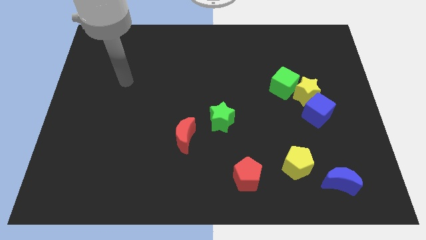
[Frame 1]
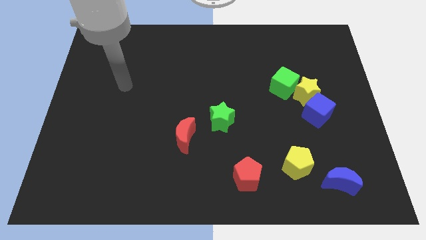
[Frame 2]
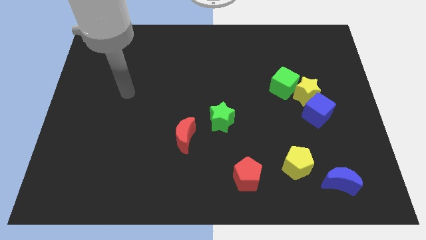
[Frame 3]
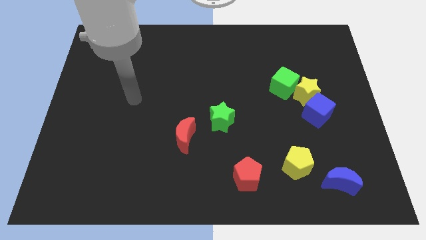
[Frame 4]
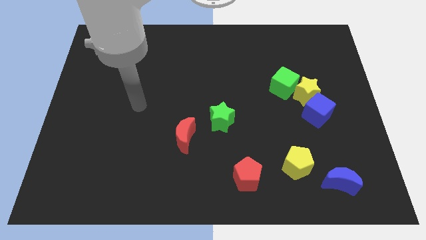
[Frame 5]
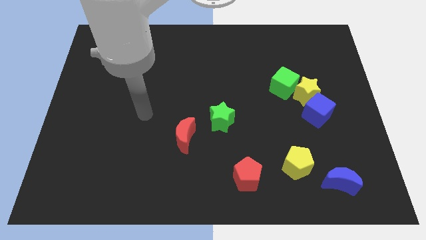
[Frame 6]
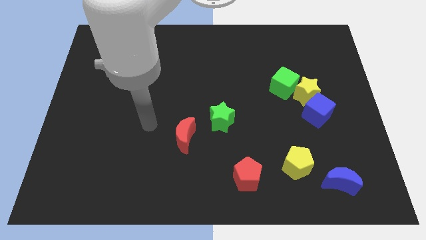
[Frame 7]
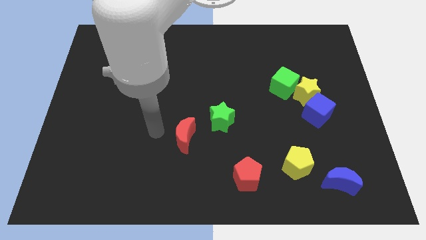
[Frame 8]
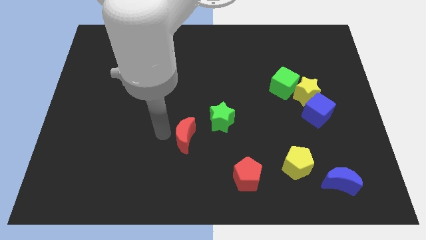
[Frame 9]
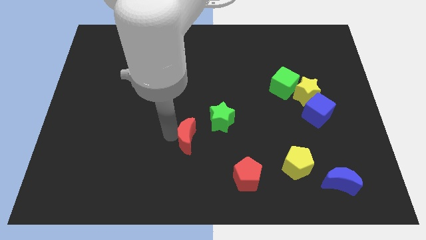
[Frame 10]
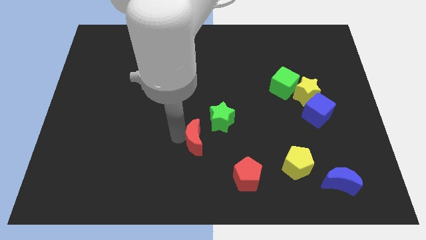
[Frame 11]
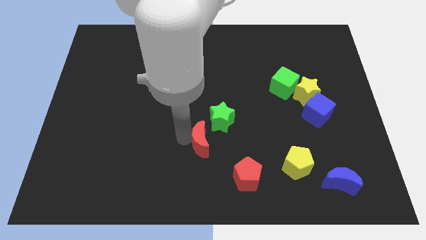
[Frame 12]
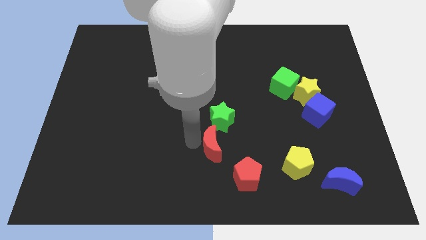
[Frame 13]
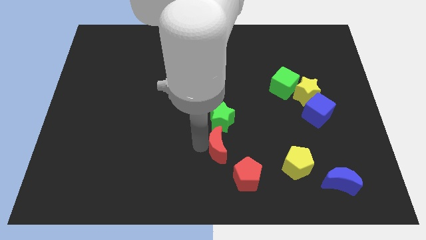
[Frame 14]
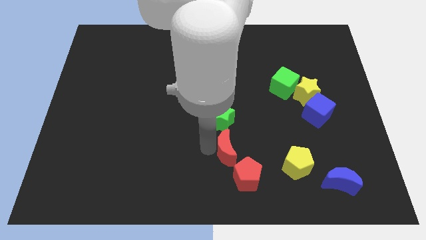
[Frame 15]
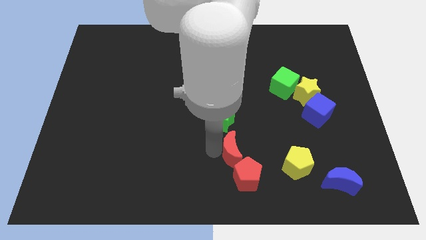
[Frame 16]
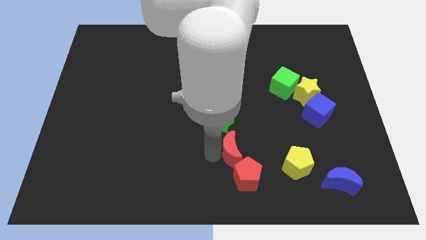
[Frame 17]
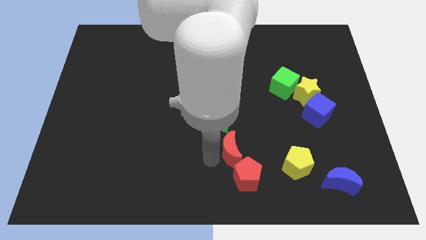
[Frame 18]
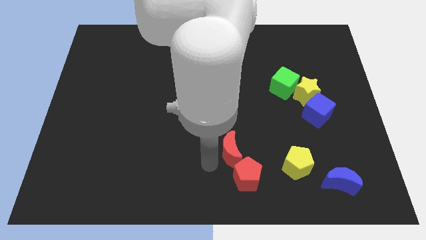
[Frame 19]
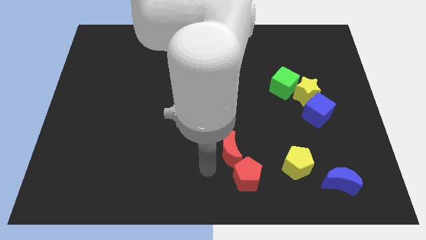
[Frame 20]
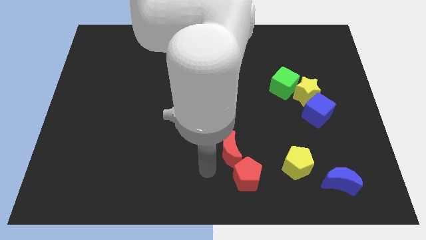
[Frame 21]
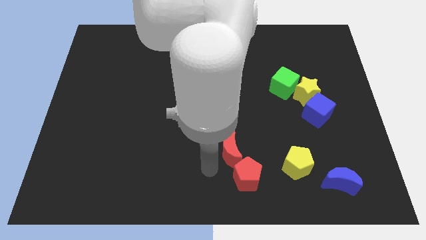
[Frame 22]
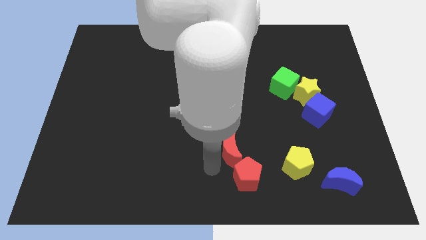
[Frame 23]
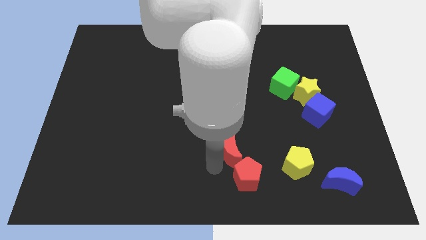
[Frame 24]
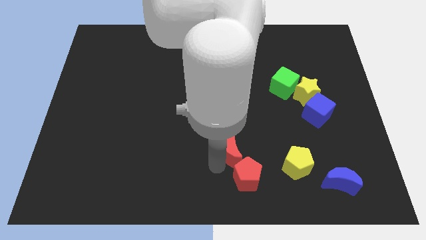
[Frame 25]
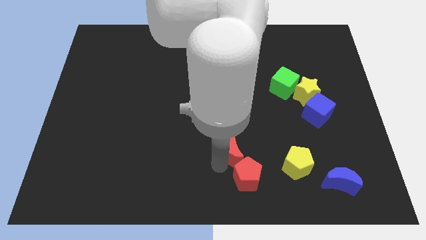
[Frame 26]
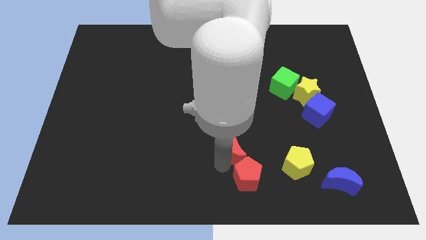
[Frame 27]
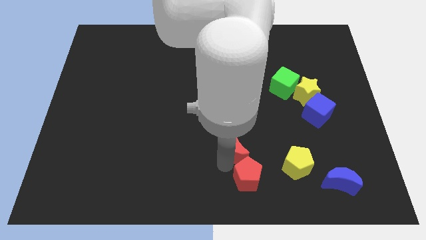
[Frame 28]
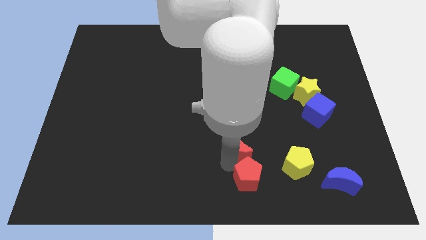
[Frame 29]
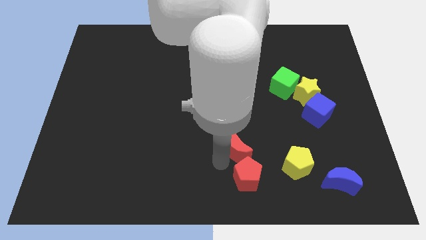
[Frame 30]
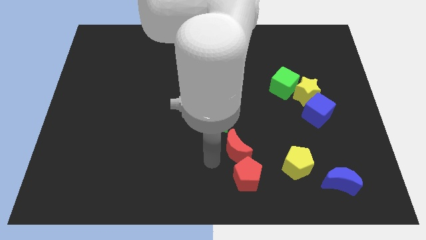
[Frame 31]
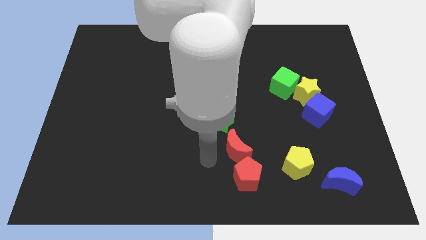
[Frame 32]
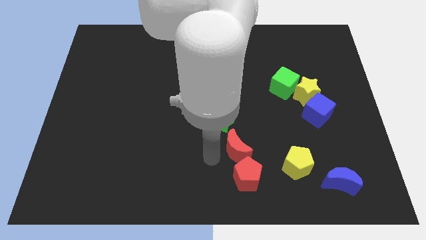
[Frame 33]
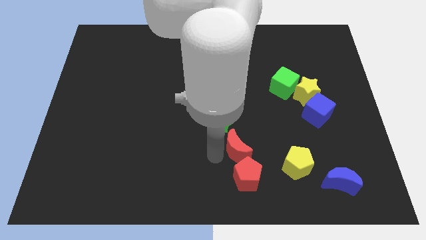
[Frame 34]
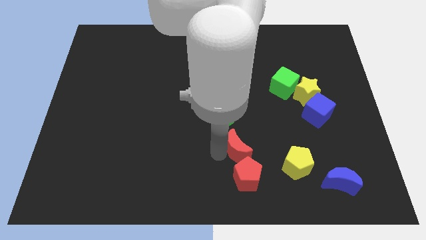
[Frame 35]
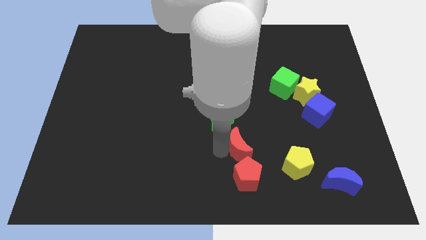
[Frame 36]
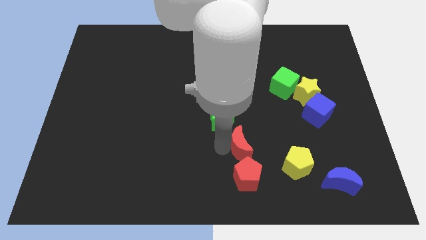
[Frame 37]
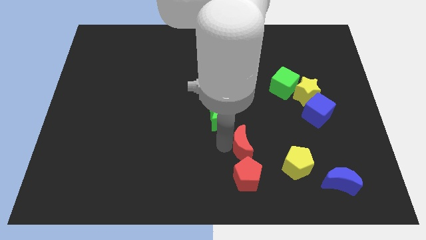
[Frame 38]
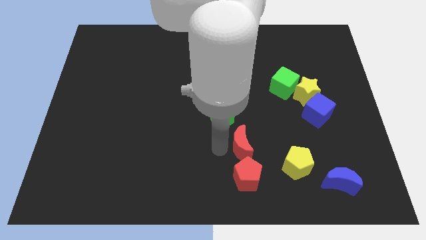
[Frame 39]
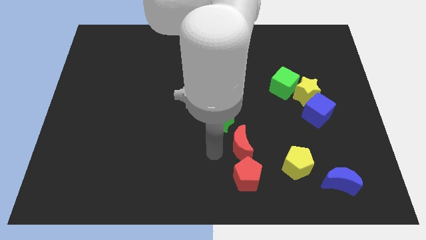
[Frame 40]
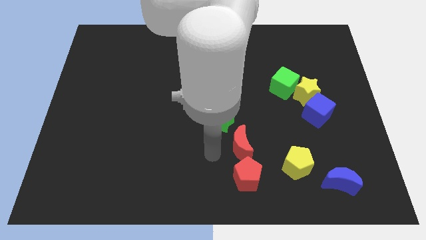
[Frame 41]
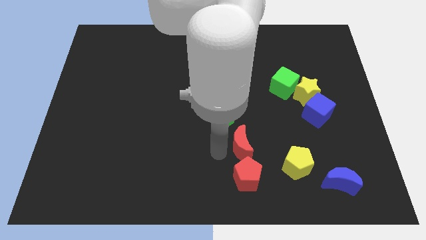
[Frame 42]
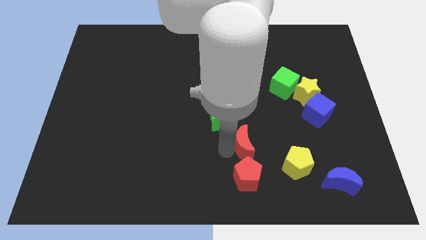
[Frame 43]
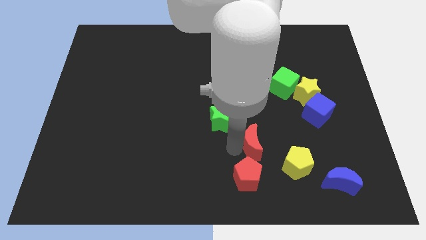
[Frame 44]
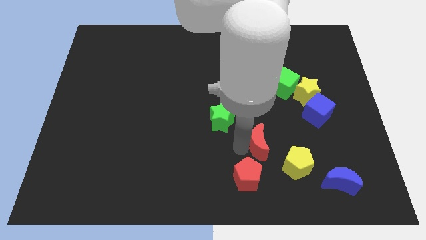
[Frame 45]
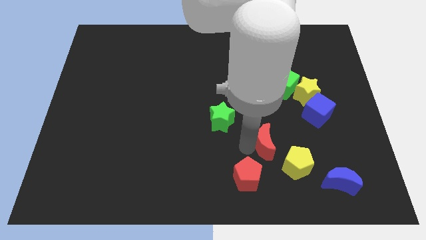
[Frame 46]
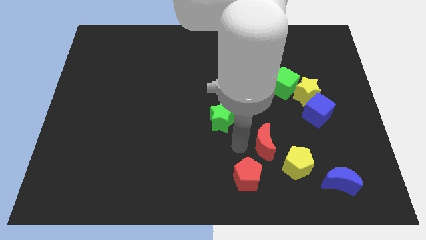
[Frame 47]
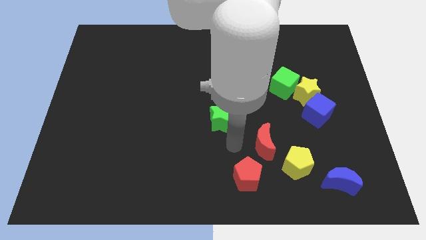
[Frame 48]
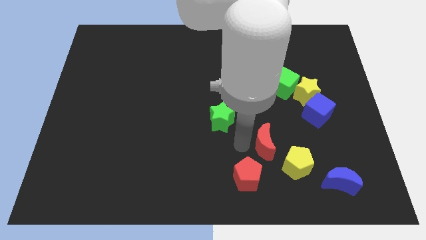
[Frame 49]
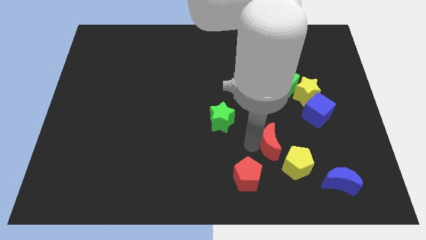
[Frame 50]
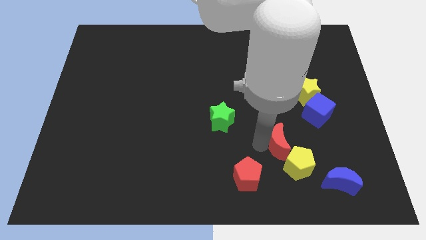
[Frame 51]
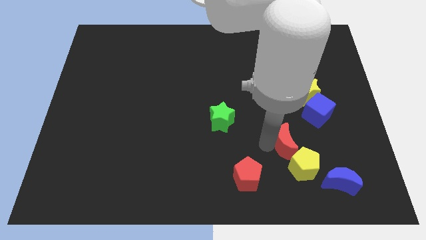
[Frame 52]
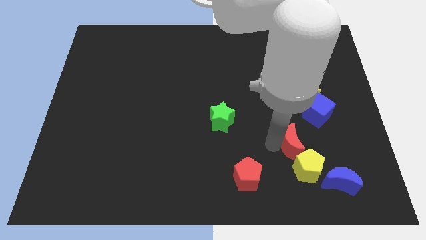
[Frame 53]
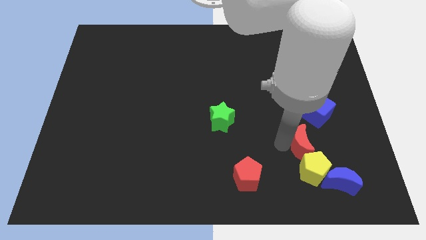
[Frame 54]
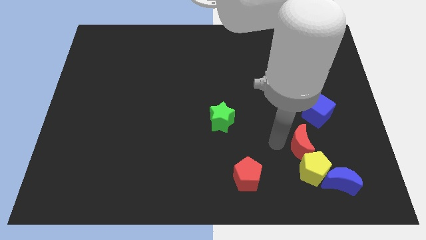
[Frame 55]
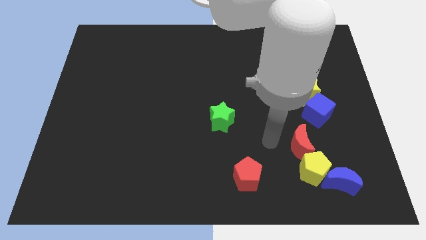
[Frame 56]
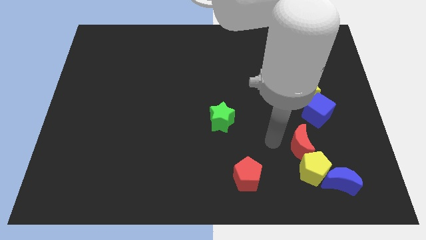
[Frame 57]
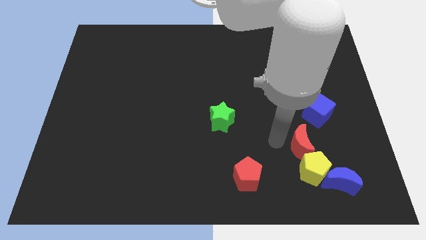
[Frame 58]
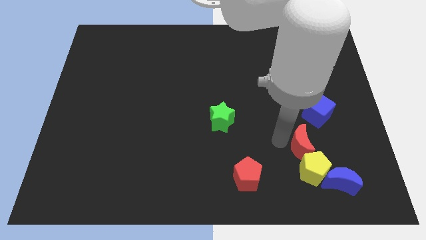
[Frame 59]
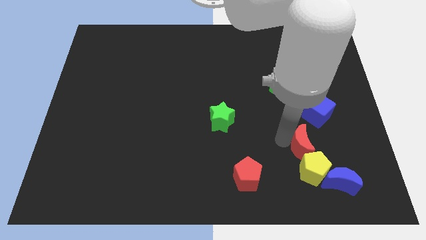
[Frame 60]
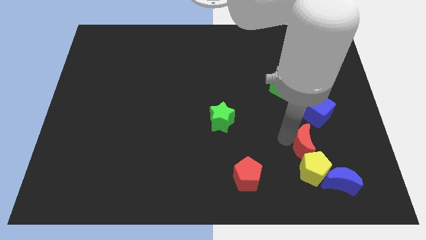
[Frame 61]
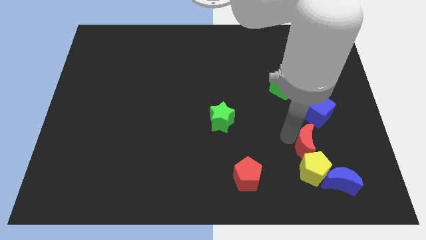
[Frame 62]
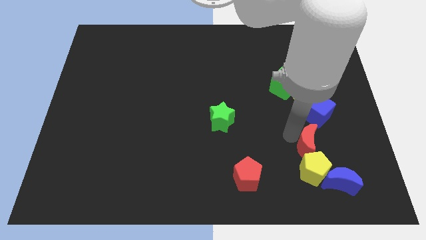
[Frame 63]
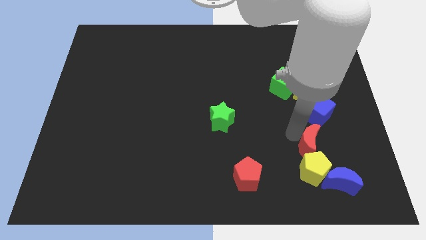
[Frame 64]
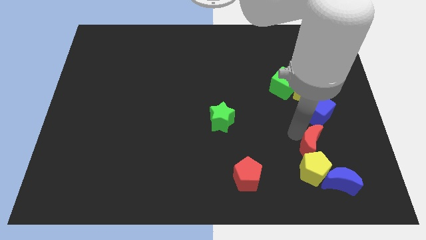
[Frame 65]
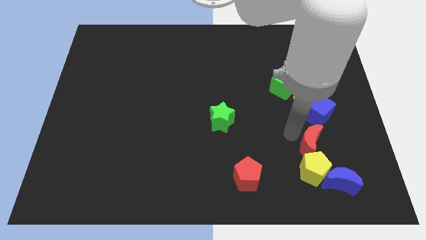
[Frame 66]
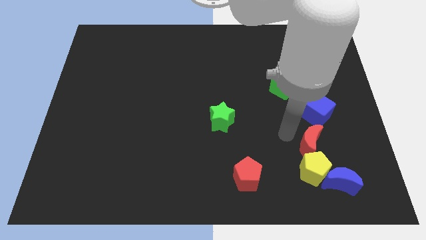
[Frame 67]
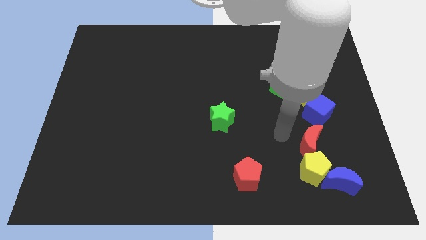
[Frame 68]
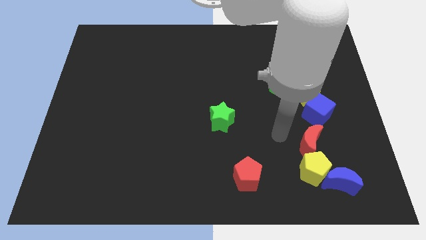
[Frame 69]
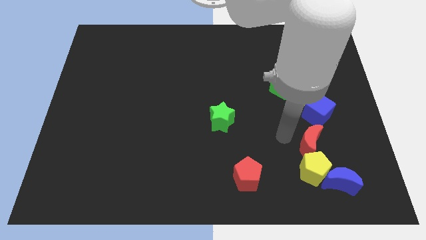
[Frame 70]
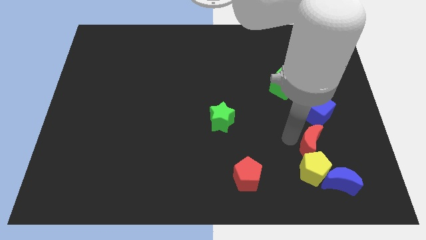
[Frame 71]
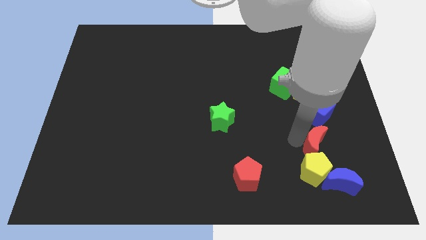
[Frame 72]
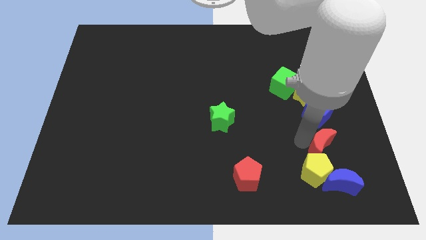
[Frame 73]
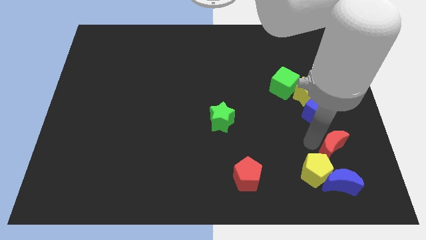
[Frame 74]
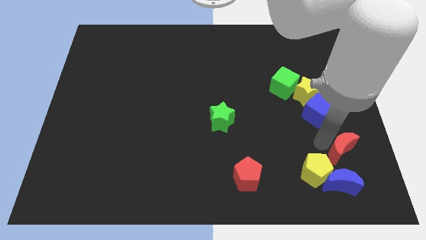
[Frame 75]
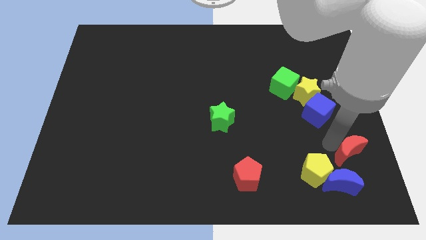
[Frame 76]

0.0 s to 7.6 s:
push the red moon to the right side of the yellow pentagon
